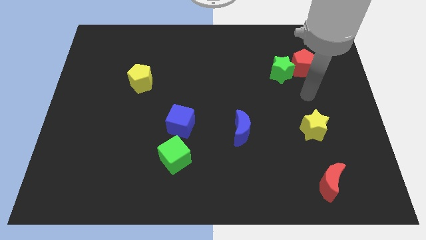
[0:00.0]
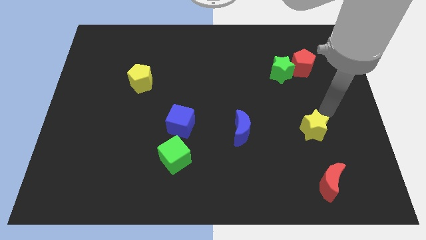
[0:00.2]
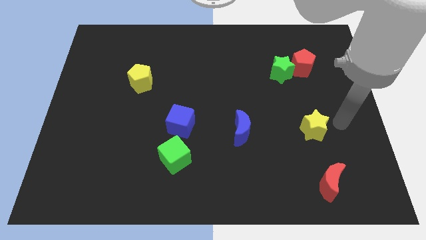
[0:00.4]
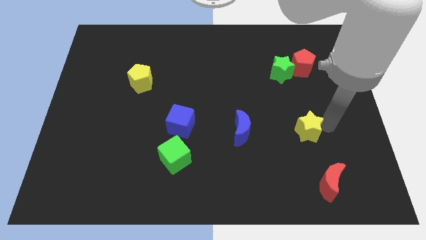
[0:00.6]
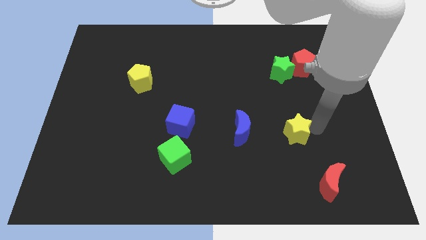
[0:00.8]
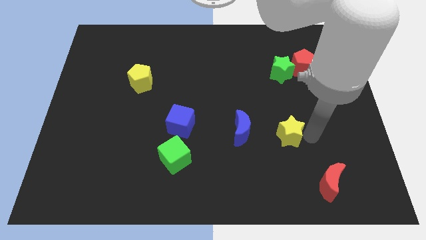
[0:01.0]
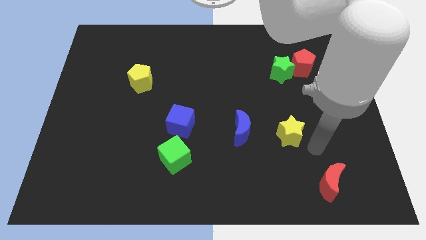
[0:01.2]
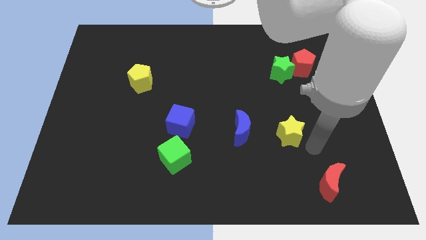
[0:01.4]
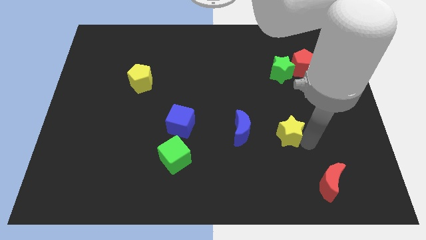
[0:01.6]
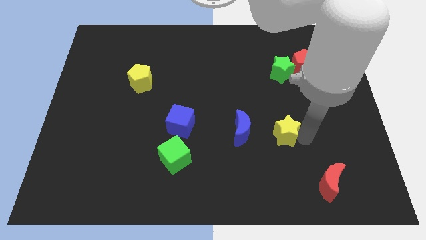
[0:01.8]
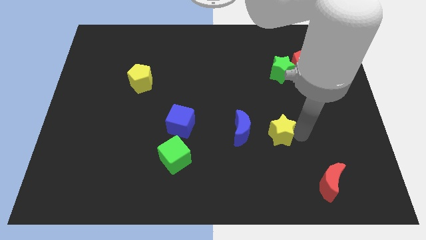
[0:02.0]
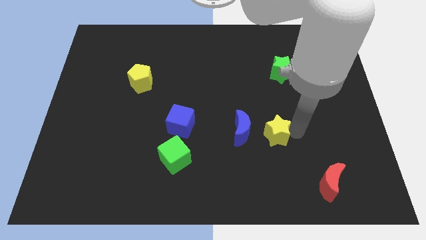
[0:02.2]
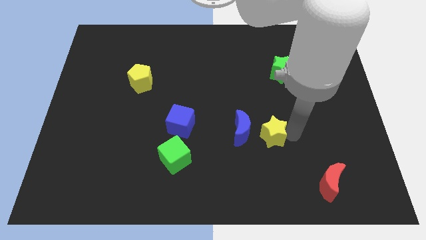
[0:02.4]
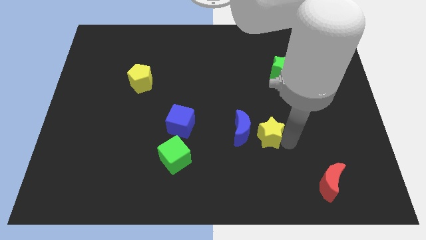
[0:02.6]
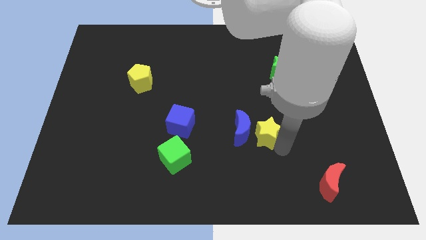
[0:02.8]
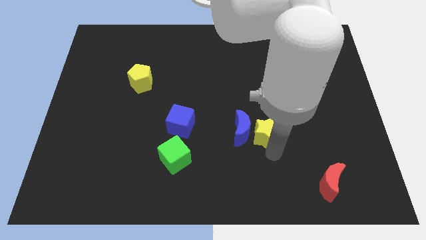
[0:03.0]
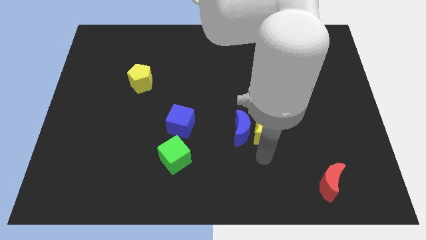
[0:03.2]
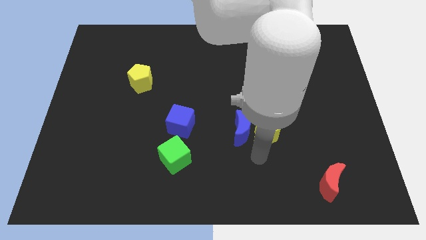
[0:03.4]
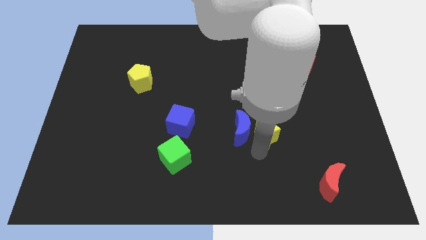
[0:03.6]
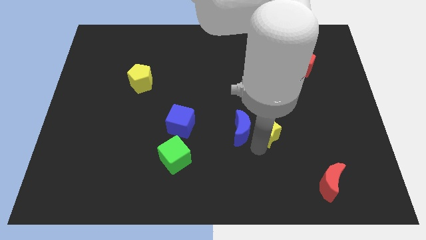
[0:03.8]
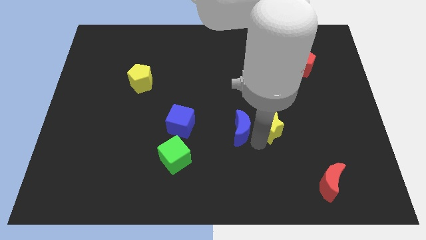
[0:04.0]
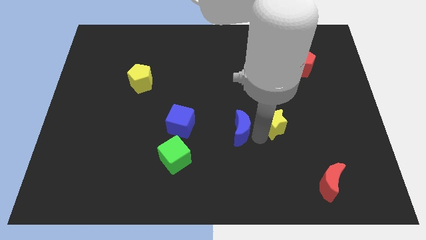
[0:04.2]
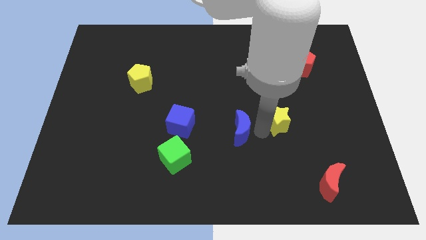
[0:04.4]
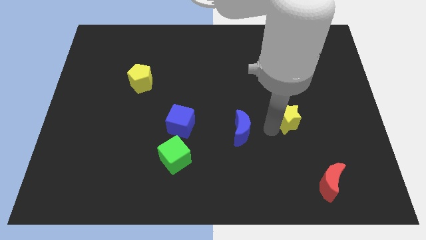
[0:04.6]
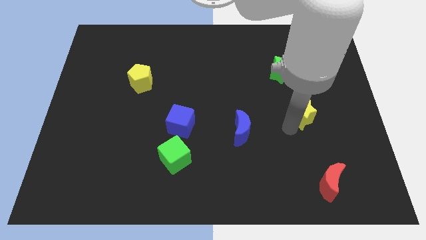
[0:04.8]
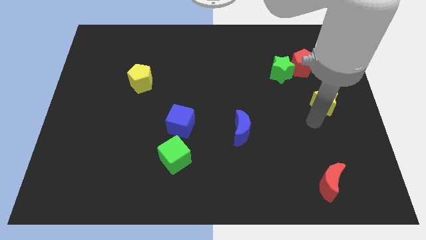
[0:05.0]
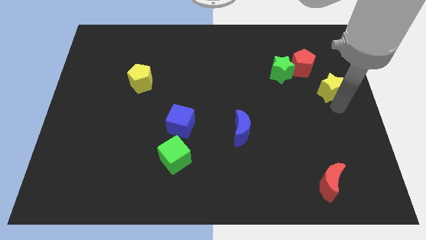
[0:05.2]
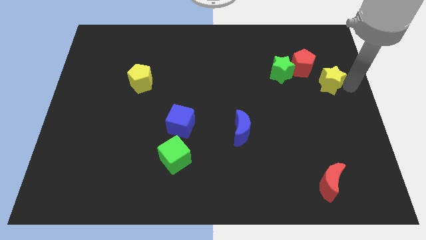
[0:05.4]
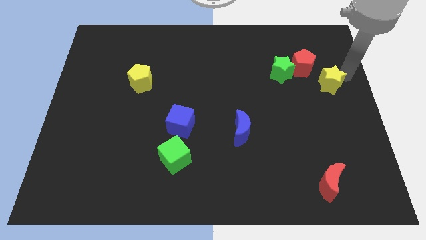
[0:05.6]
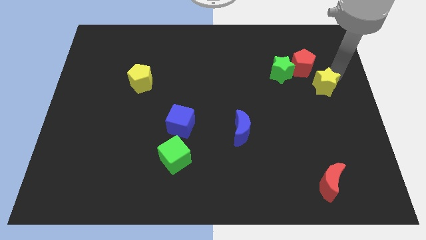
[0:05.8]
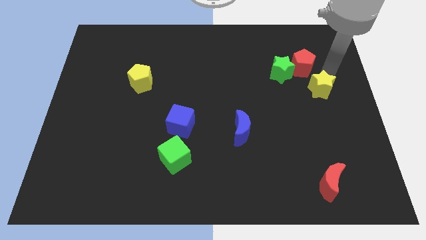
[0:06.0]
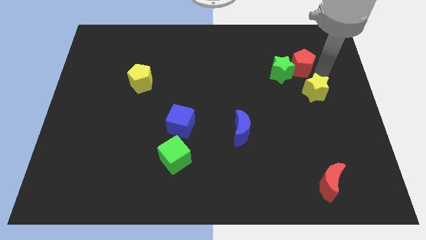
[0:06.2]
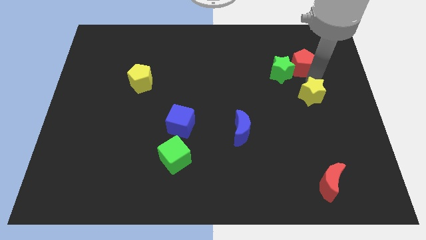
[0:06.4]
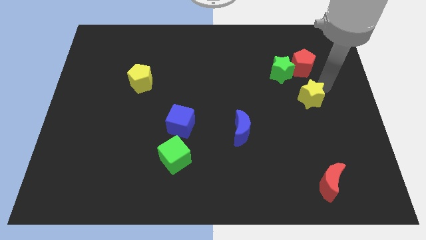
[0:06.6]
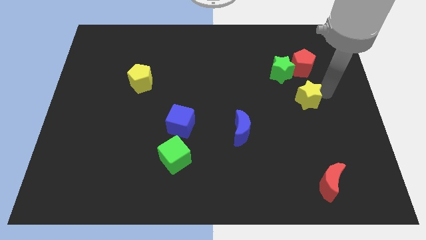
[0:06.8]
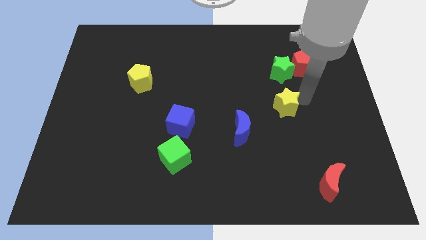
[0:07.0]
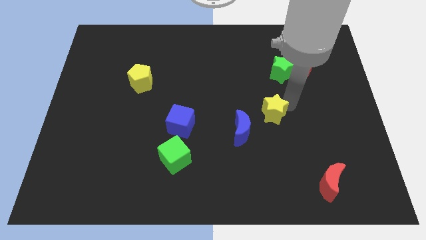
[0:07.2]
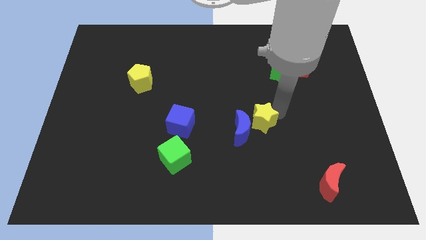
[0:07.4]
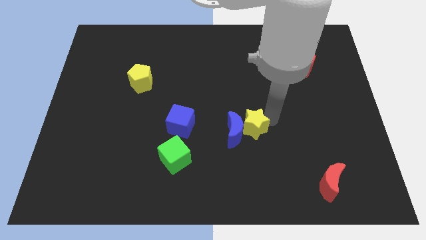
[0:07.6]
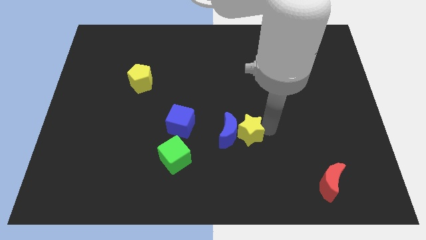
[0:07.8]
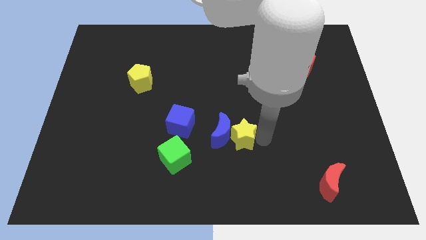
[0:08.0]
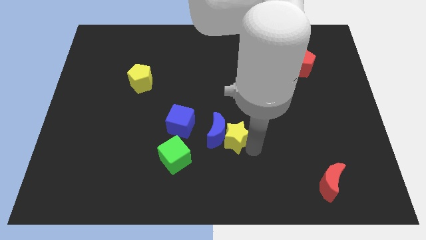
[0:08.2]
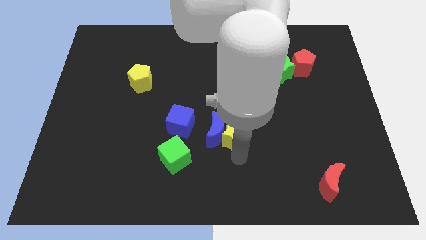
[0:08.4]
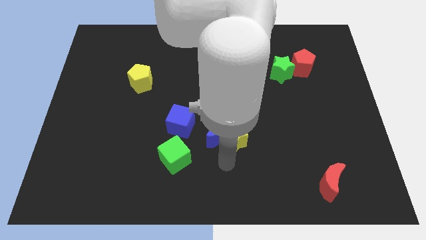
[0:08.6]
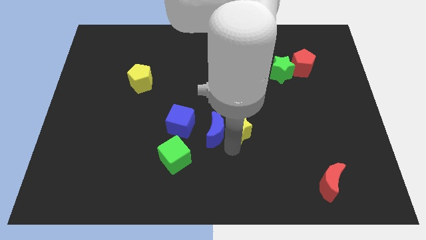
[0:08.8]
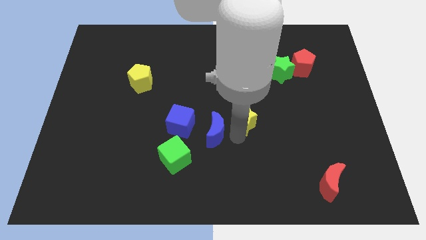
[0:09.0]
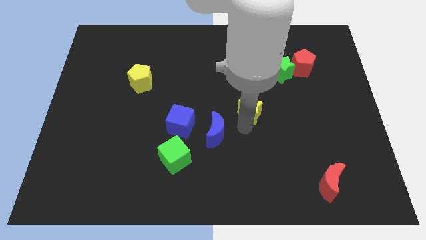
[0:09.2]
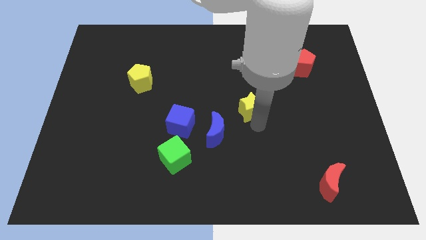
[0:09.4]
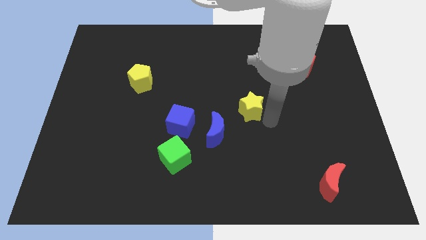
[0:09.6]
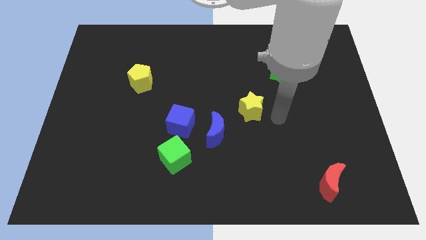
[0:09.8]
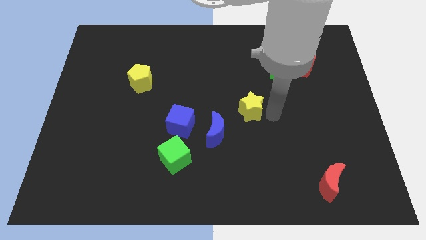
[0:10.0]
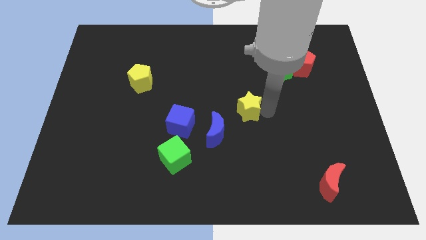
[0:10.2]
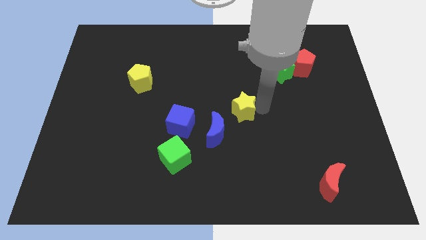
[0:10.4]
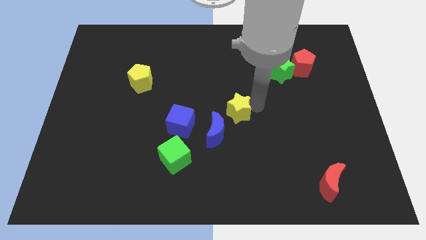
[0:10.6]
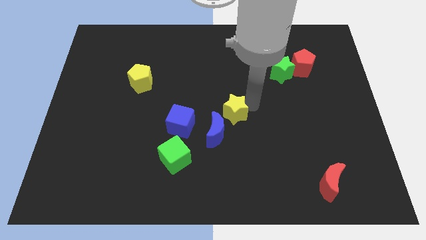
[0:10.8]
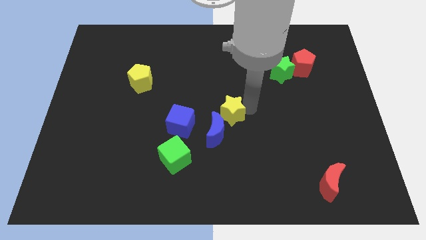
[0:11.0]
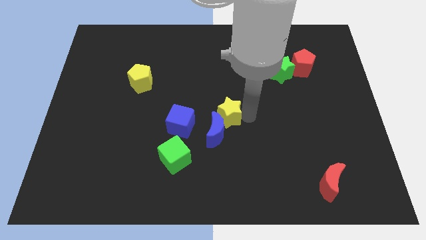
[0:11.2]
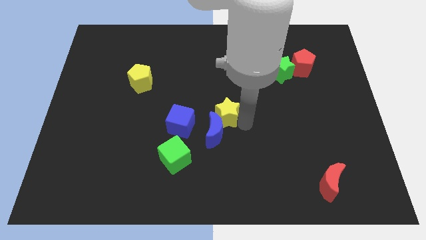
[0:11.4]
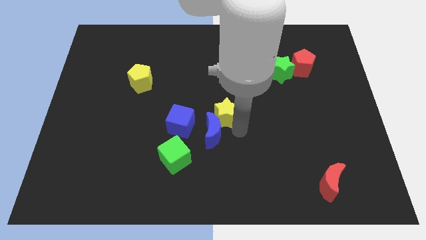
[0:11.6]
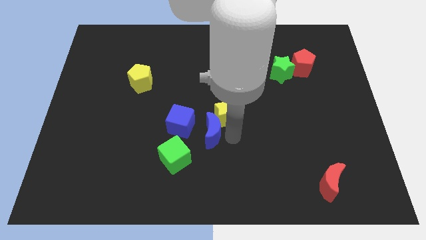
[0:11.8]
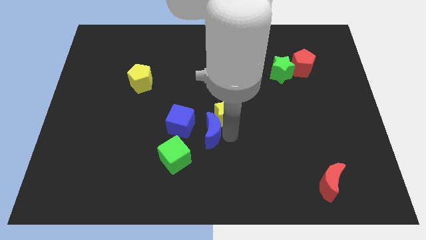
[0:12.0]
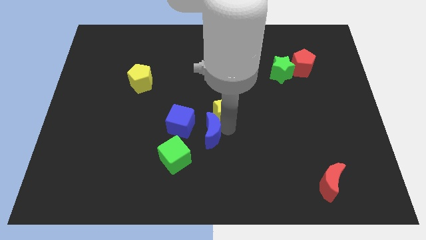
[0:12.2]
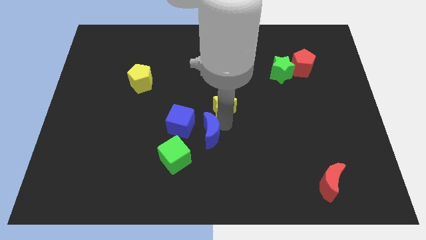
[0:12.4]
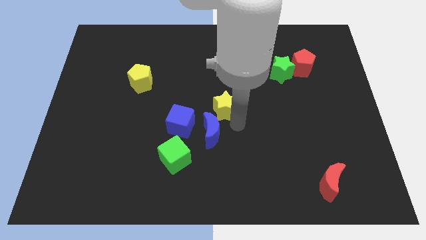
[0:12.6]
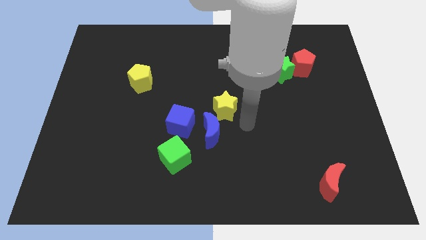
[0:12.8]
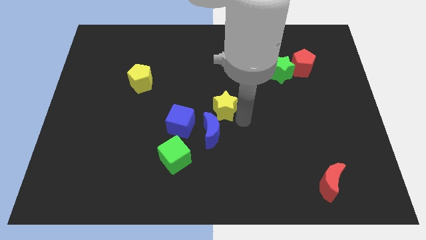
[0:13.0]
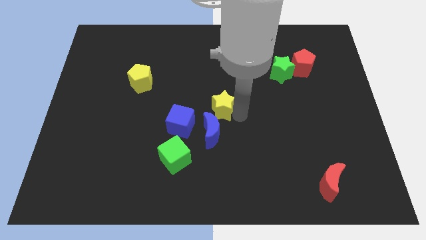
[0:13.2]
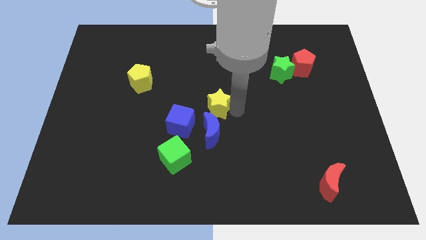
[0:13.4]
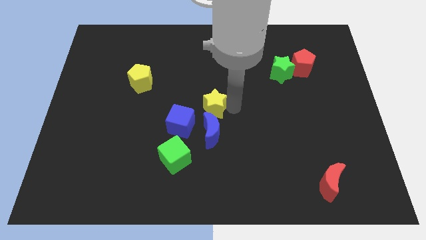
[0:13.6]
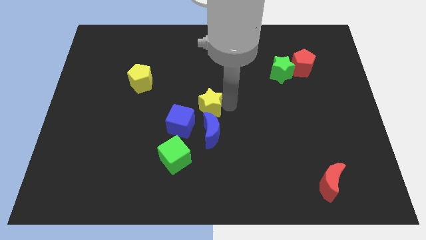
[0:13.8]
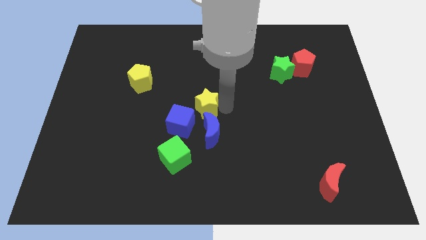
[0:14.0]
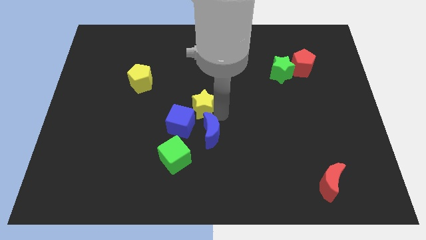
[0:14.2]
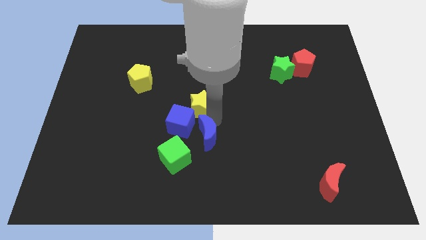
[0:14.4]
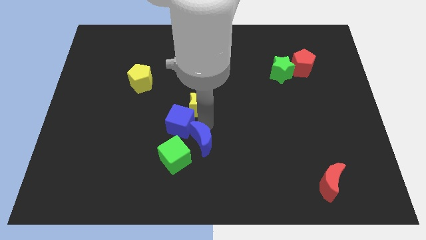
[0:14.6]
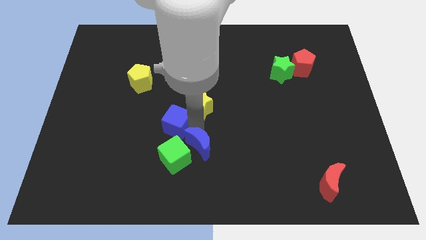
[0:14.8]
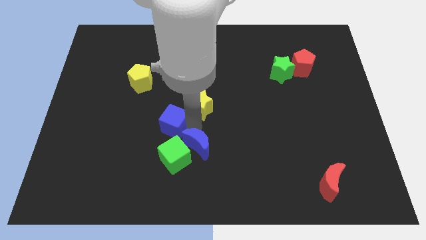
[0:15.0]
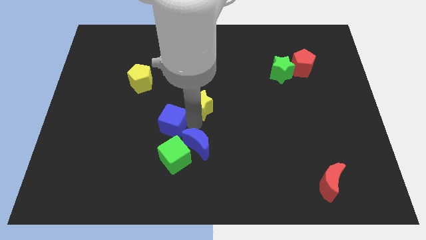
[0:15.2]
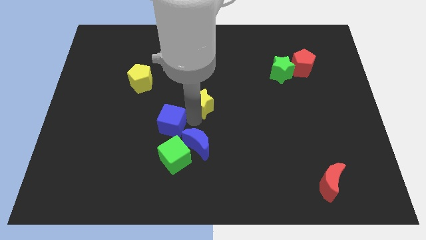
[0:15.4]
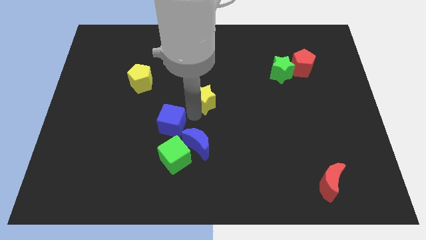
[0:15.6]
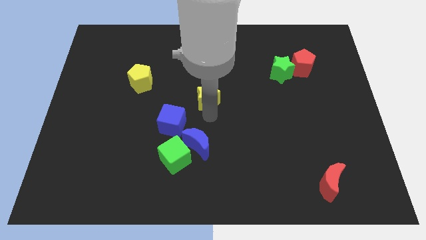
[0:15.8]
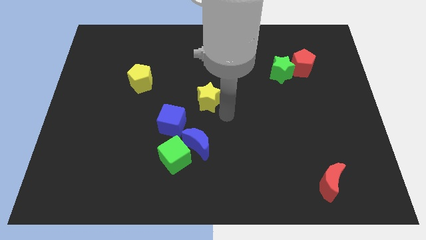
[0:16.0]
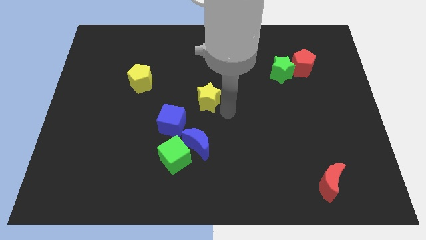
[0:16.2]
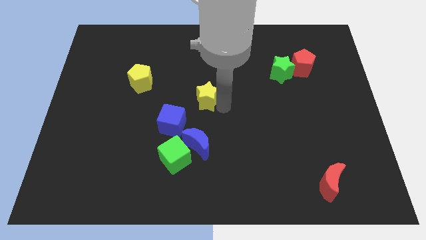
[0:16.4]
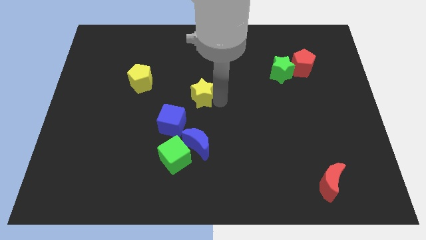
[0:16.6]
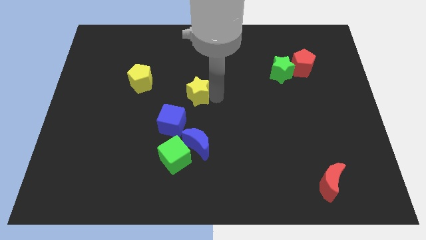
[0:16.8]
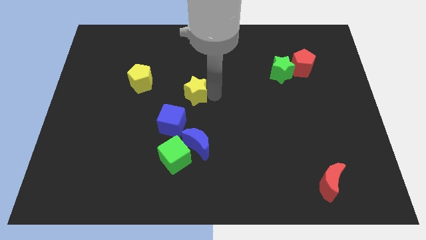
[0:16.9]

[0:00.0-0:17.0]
put the yellow star to the right of the yellow pentagon
